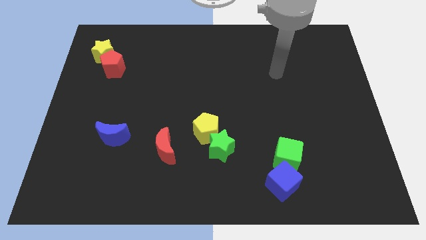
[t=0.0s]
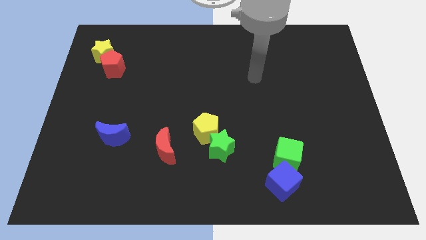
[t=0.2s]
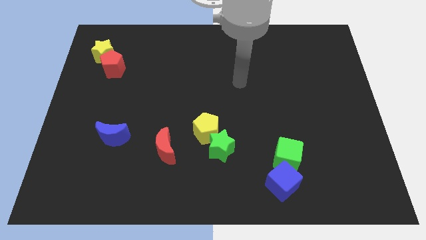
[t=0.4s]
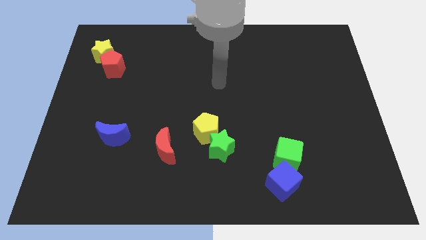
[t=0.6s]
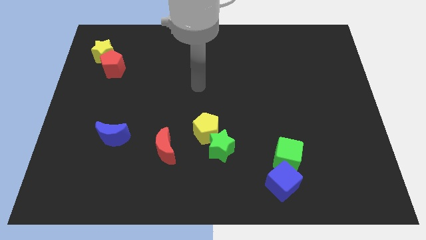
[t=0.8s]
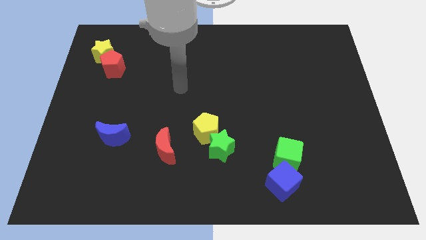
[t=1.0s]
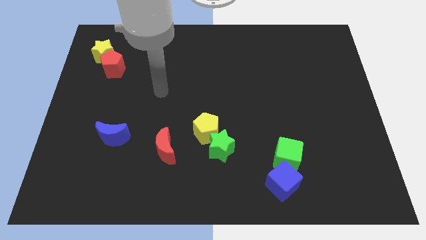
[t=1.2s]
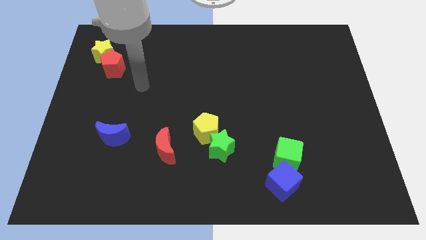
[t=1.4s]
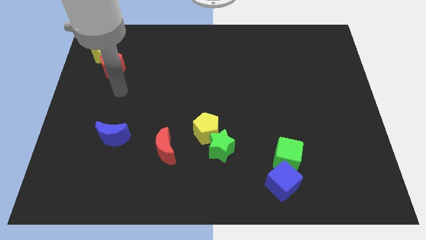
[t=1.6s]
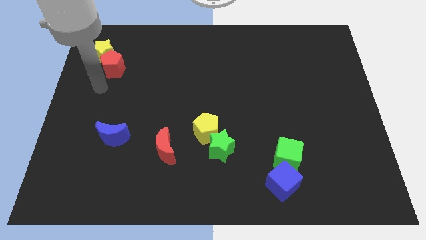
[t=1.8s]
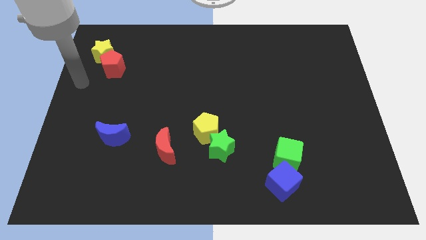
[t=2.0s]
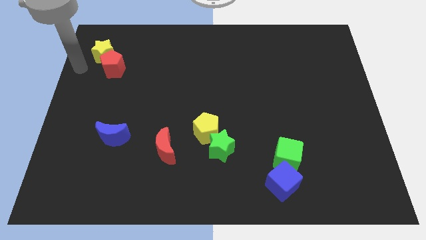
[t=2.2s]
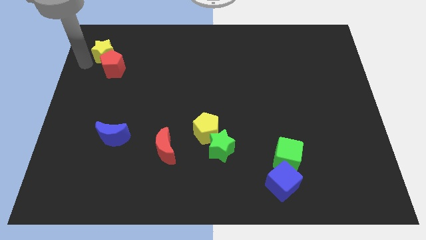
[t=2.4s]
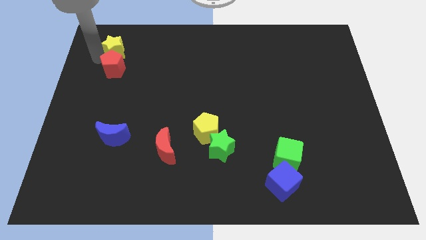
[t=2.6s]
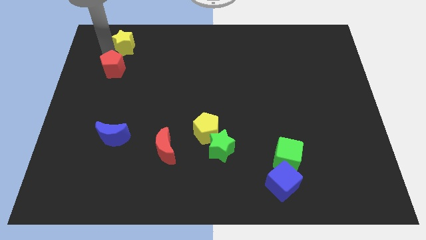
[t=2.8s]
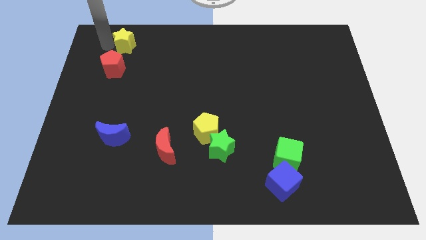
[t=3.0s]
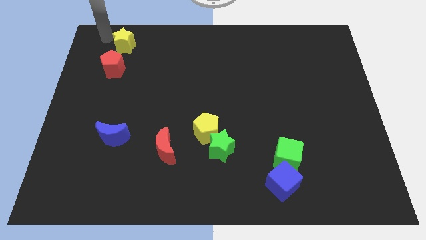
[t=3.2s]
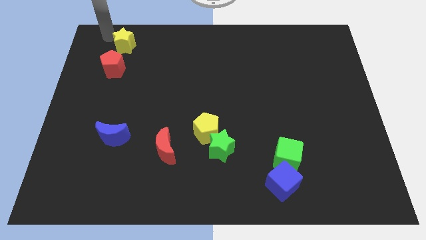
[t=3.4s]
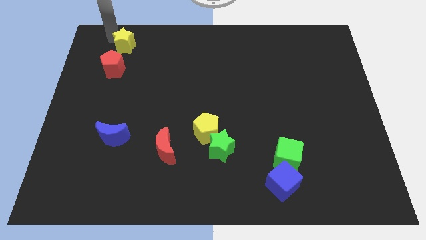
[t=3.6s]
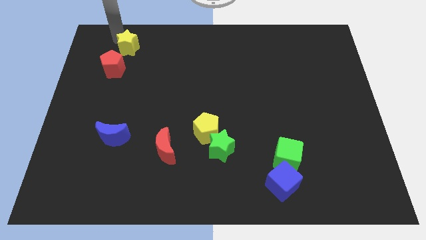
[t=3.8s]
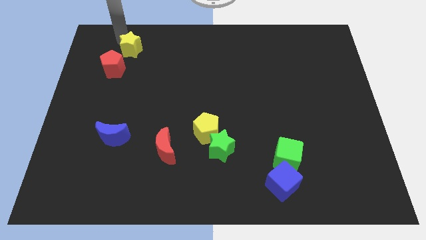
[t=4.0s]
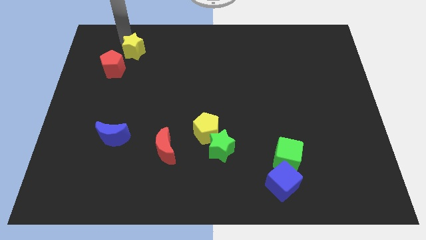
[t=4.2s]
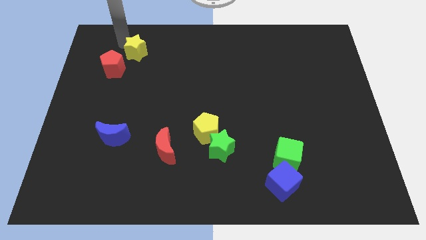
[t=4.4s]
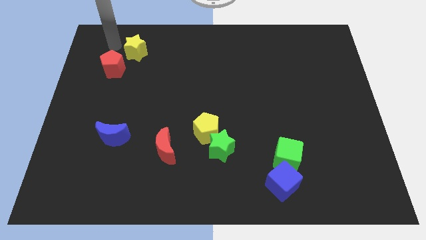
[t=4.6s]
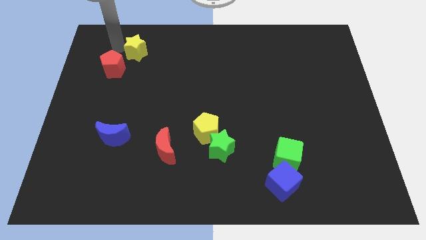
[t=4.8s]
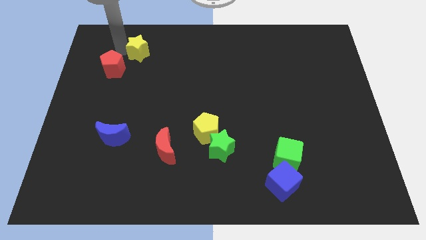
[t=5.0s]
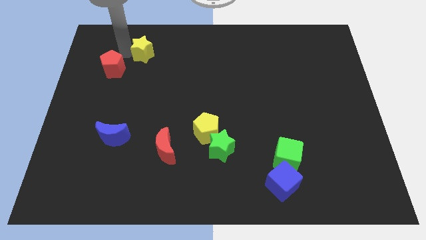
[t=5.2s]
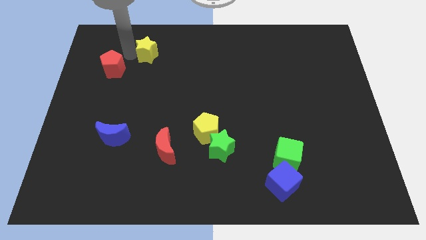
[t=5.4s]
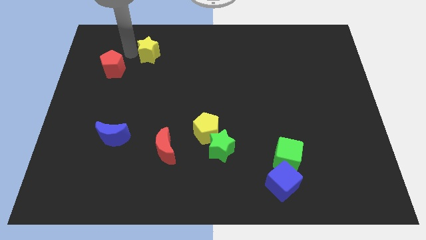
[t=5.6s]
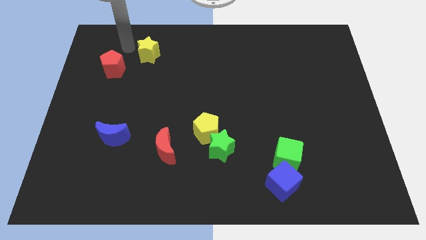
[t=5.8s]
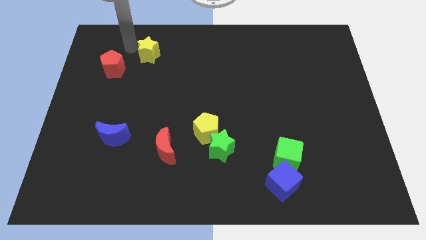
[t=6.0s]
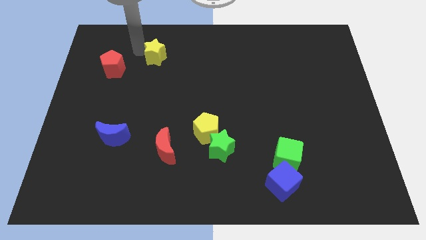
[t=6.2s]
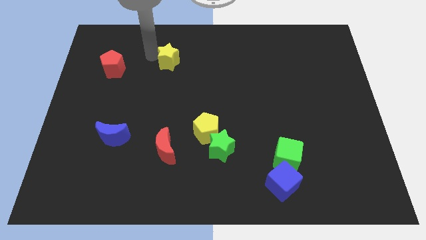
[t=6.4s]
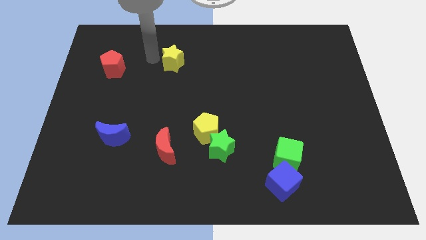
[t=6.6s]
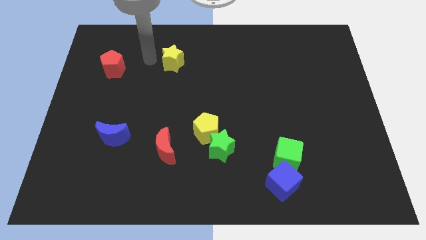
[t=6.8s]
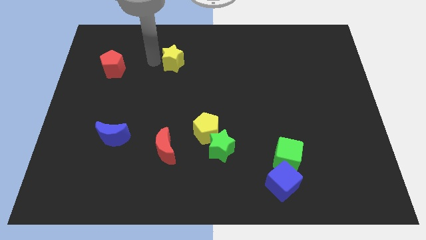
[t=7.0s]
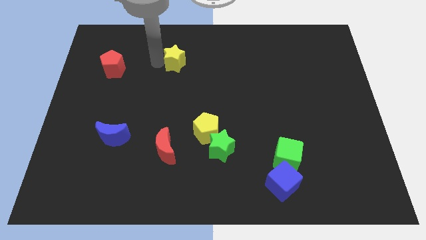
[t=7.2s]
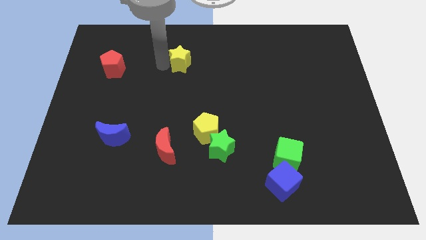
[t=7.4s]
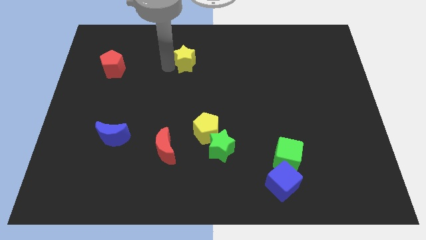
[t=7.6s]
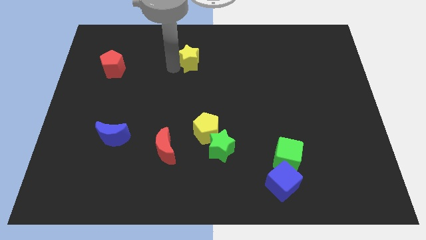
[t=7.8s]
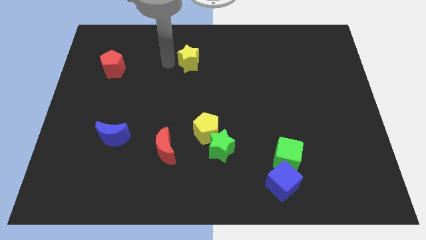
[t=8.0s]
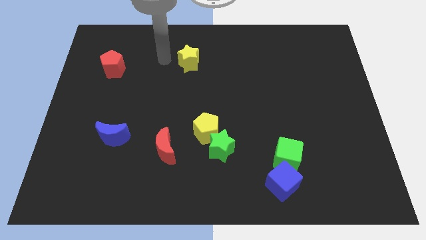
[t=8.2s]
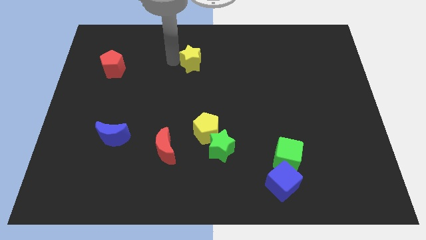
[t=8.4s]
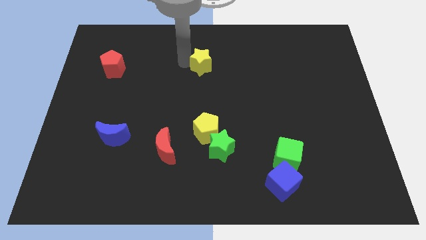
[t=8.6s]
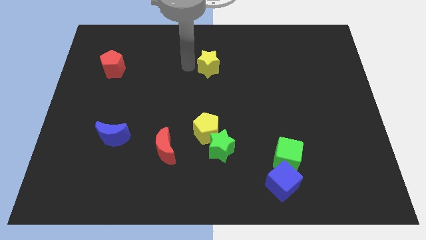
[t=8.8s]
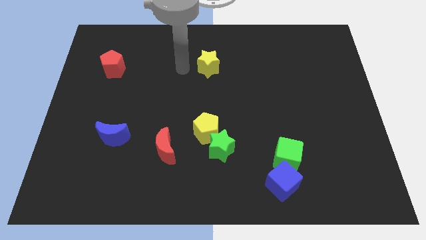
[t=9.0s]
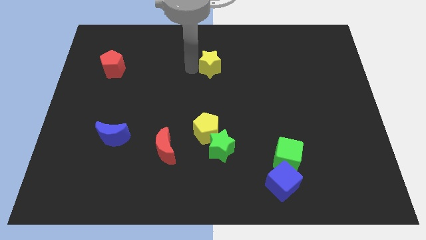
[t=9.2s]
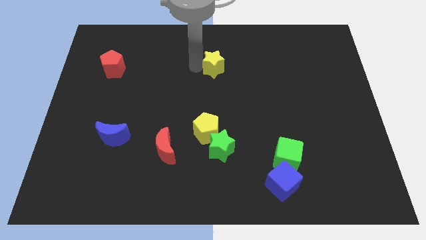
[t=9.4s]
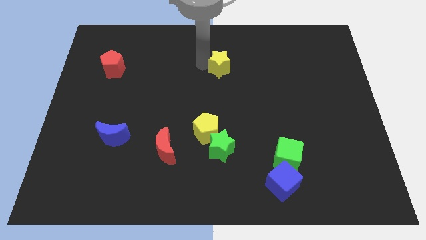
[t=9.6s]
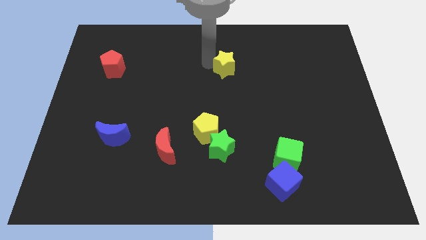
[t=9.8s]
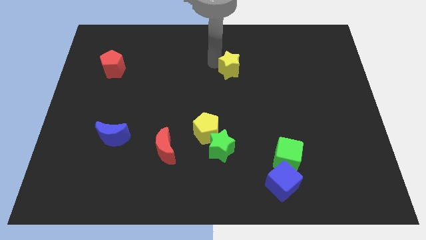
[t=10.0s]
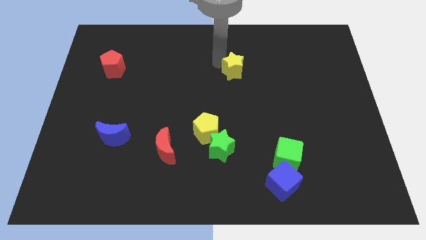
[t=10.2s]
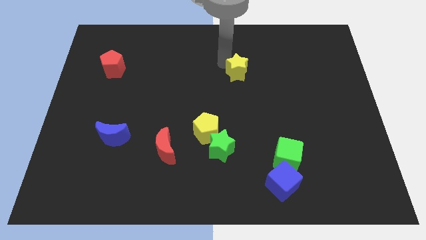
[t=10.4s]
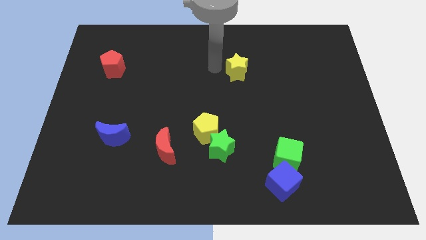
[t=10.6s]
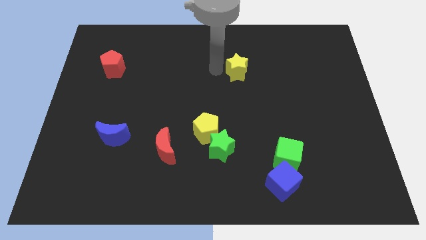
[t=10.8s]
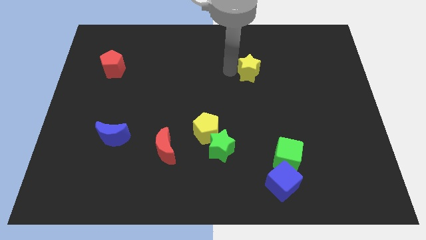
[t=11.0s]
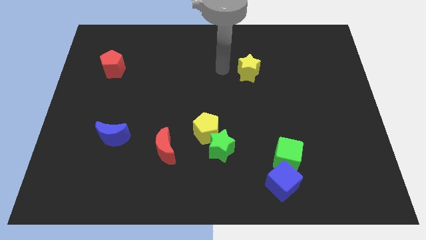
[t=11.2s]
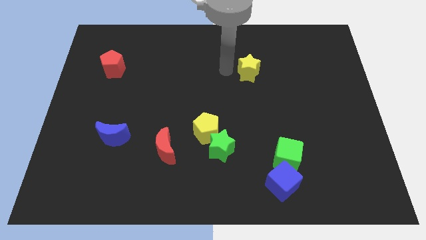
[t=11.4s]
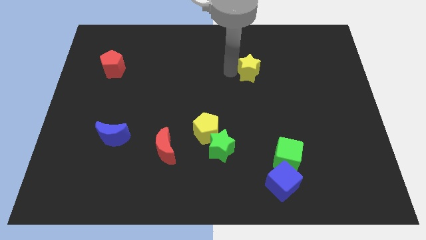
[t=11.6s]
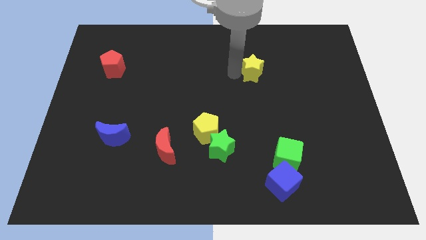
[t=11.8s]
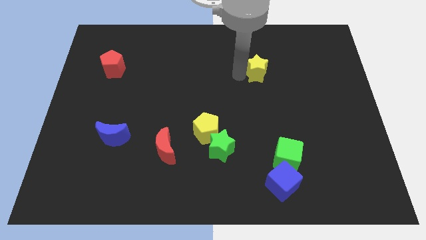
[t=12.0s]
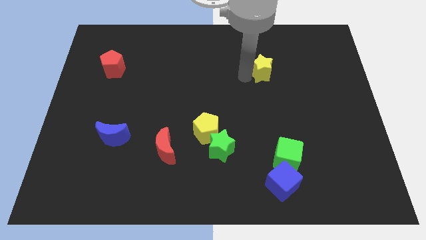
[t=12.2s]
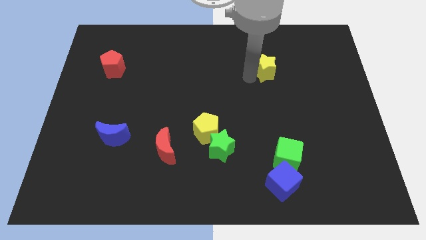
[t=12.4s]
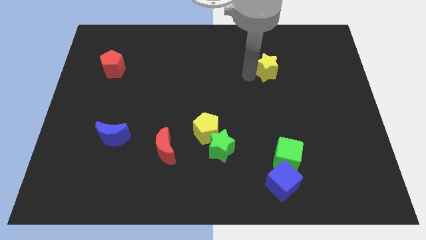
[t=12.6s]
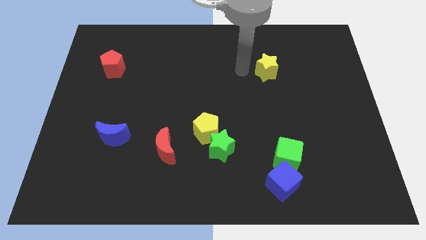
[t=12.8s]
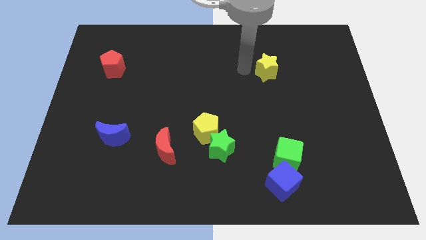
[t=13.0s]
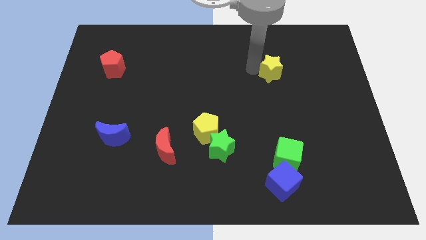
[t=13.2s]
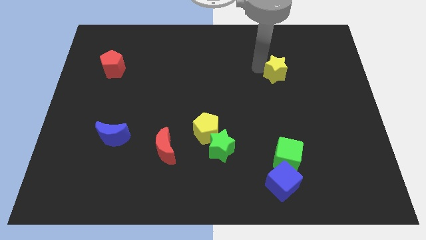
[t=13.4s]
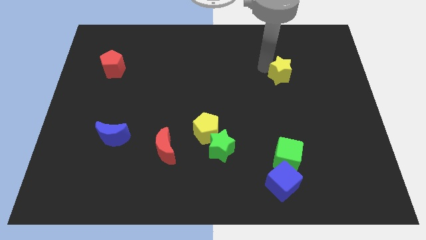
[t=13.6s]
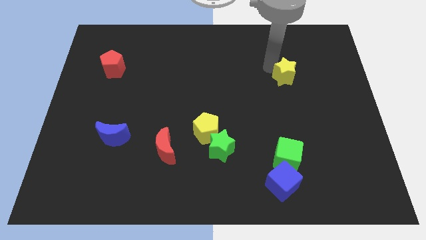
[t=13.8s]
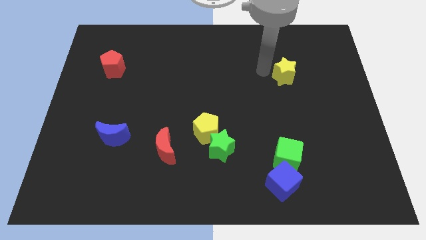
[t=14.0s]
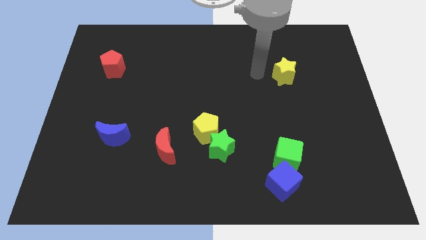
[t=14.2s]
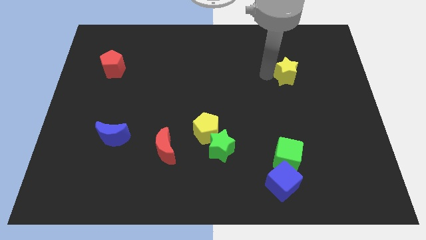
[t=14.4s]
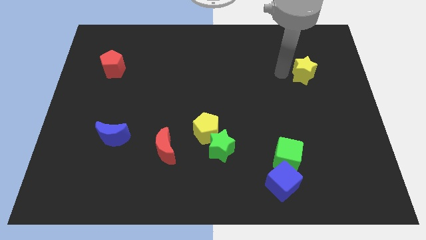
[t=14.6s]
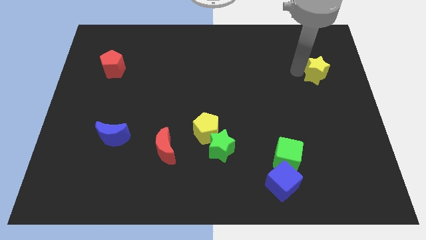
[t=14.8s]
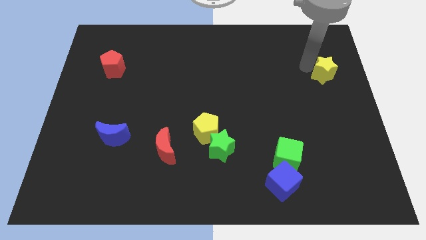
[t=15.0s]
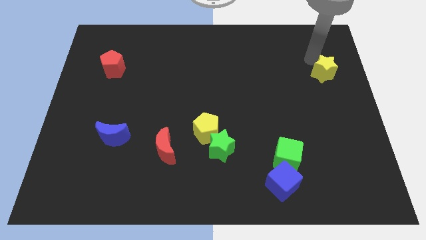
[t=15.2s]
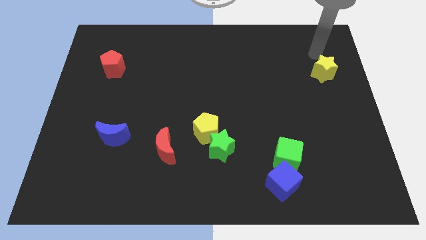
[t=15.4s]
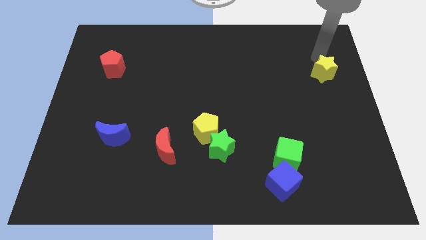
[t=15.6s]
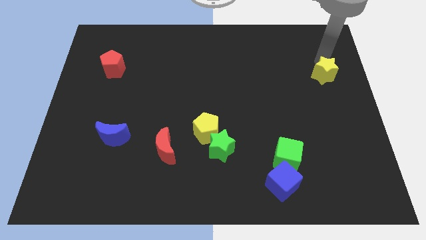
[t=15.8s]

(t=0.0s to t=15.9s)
move the yellow star to the center right
